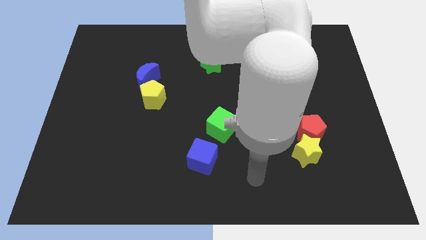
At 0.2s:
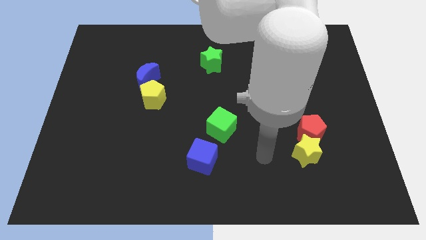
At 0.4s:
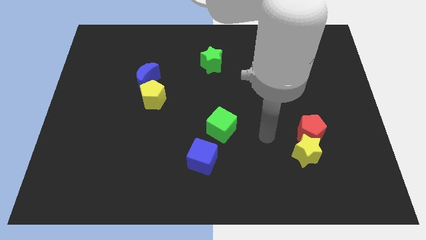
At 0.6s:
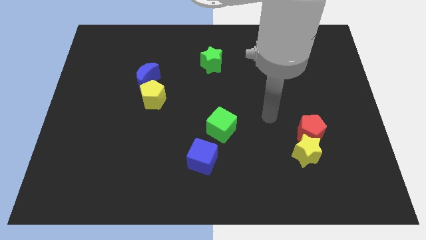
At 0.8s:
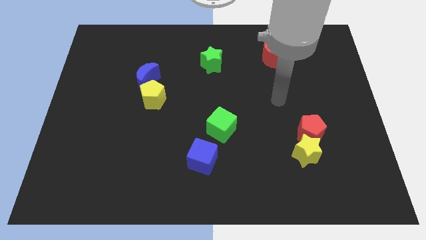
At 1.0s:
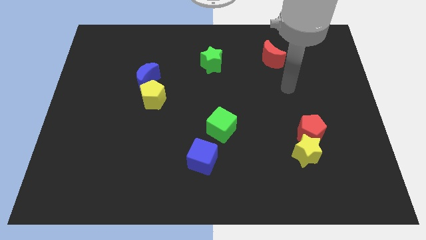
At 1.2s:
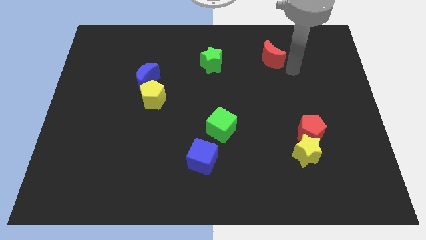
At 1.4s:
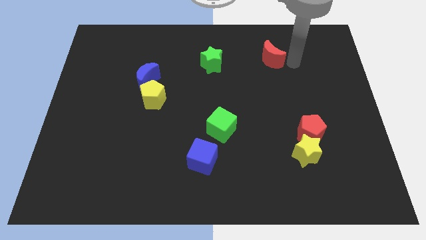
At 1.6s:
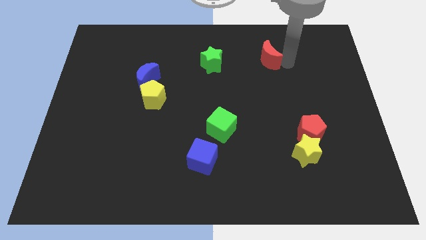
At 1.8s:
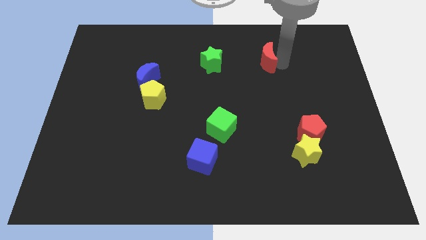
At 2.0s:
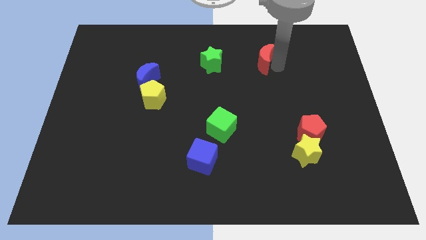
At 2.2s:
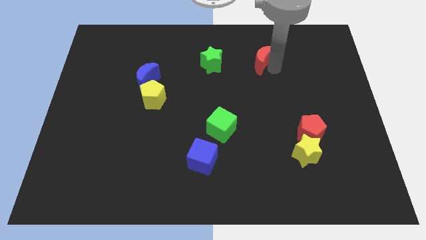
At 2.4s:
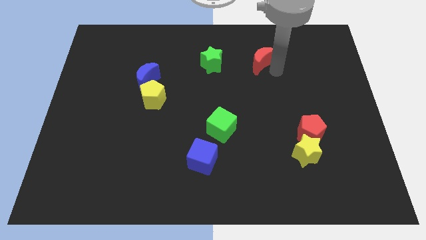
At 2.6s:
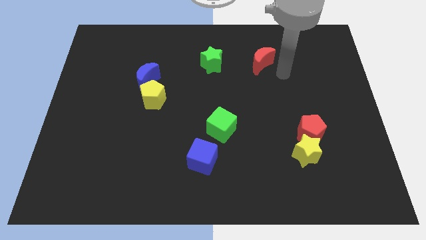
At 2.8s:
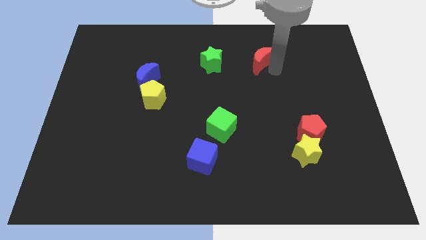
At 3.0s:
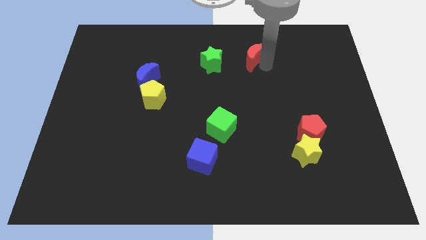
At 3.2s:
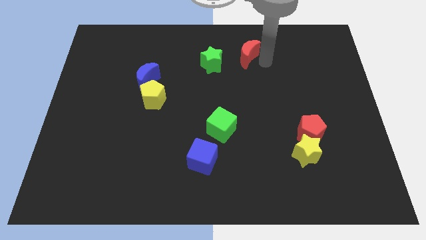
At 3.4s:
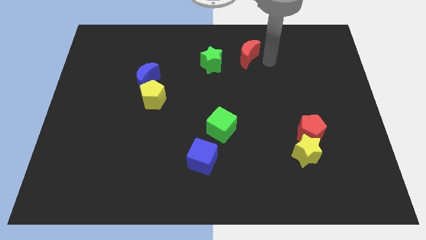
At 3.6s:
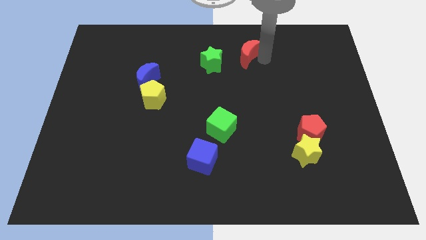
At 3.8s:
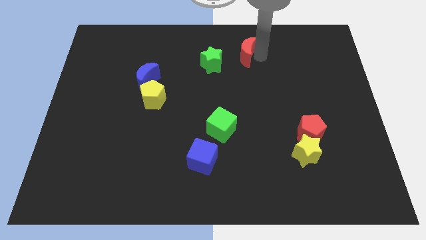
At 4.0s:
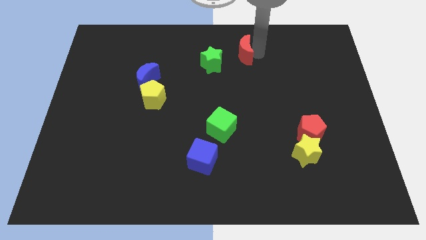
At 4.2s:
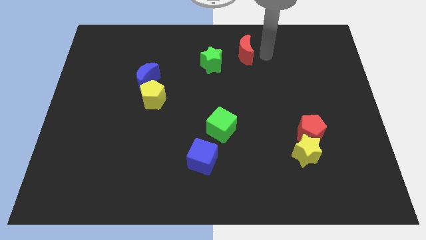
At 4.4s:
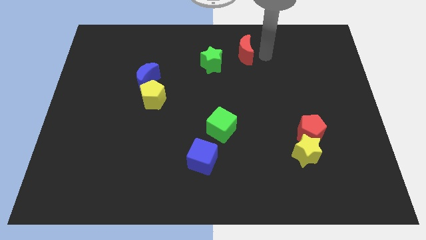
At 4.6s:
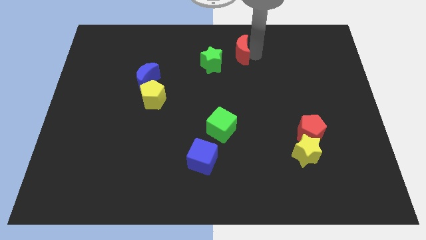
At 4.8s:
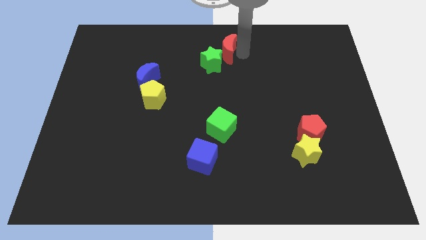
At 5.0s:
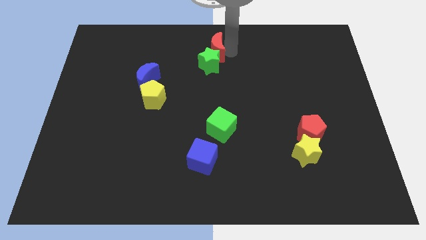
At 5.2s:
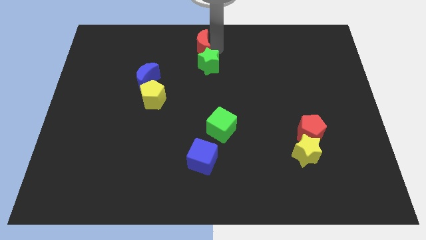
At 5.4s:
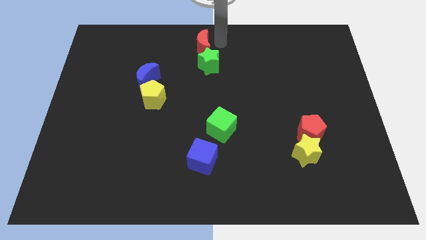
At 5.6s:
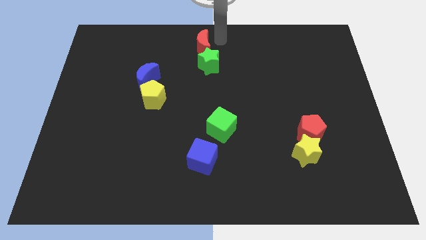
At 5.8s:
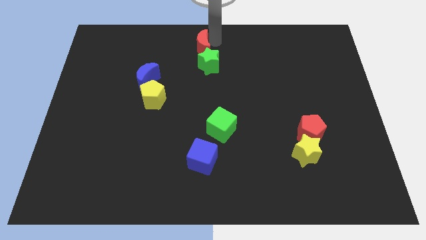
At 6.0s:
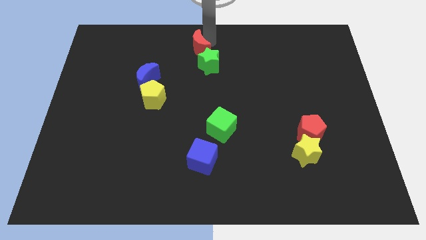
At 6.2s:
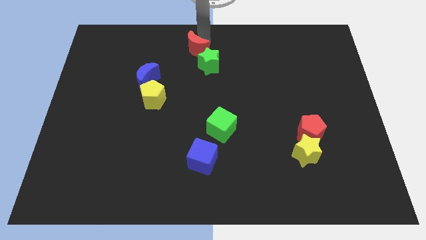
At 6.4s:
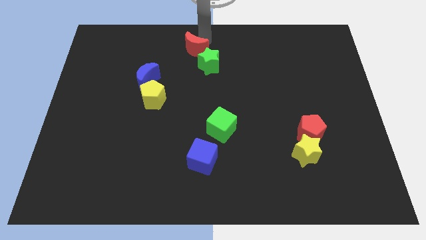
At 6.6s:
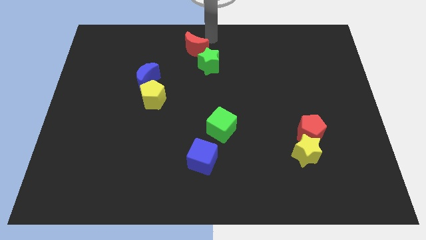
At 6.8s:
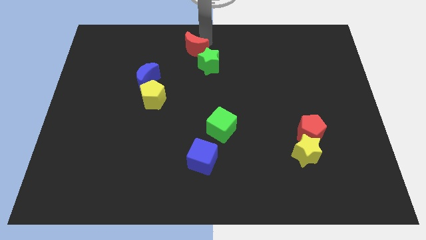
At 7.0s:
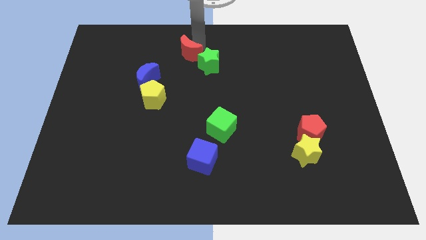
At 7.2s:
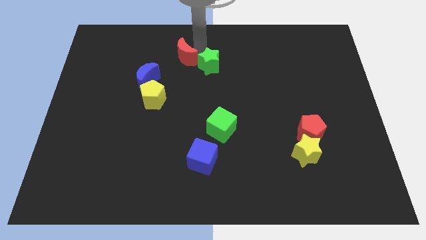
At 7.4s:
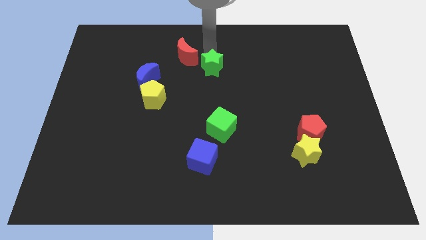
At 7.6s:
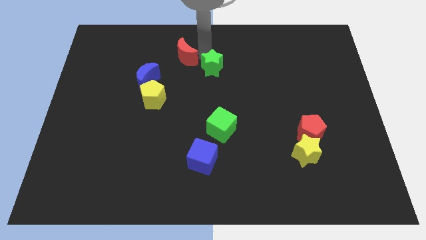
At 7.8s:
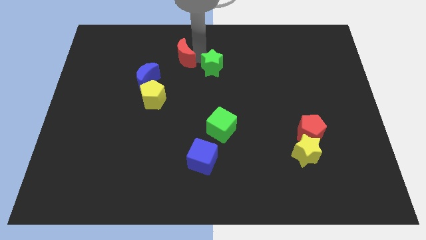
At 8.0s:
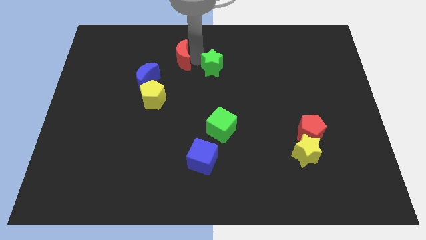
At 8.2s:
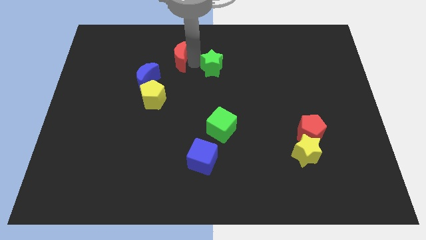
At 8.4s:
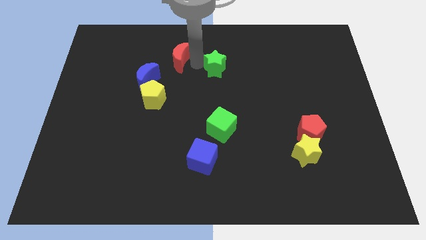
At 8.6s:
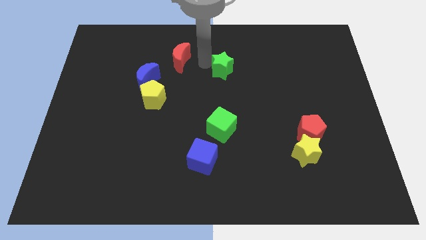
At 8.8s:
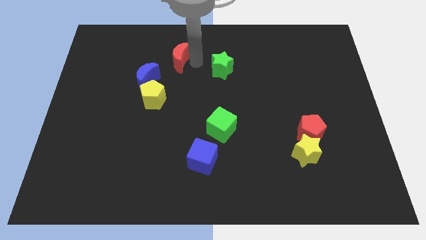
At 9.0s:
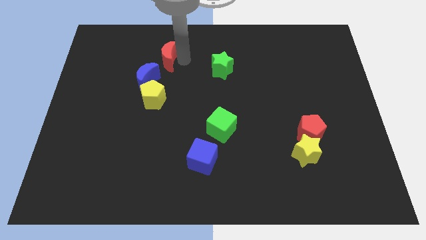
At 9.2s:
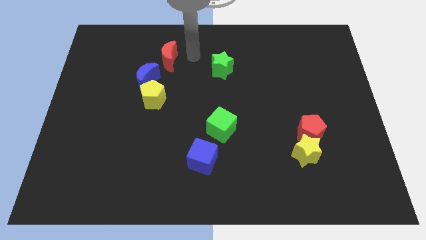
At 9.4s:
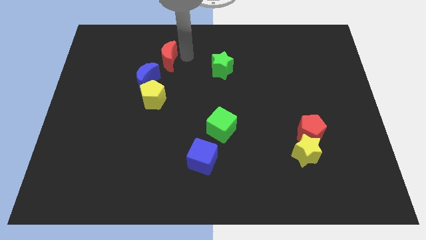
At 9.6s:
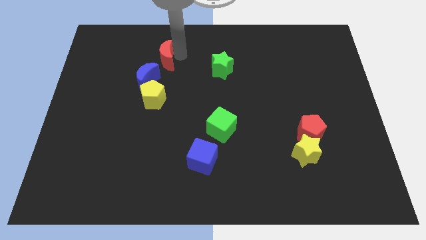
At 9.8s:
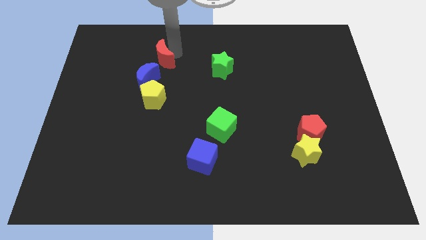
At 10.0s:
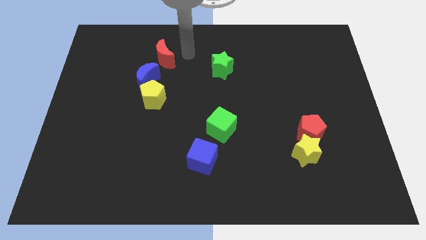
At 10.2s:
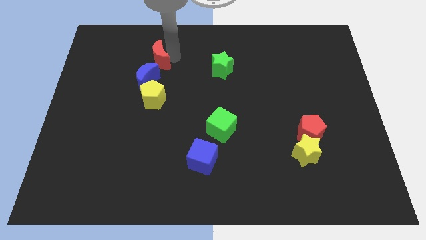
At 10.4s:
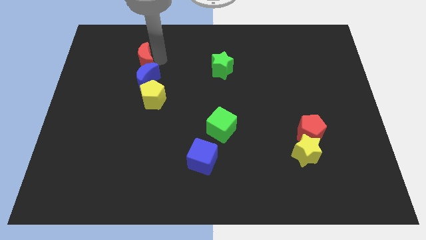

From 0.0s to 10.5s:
slide the red moon diagonally up and to the left of the blue moon
